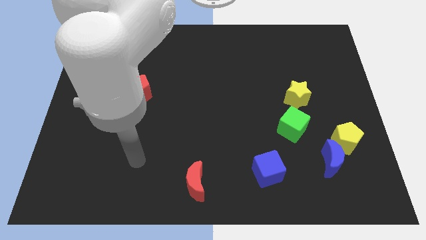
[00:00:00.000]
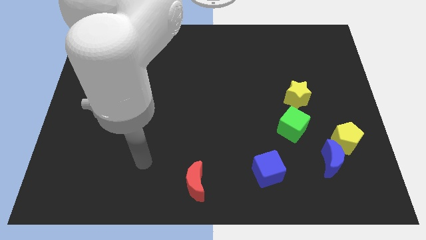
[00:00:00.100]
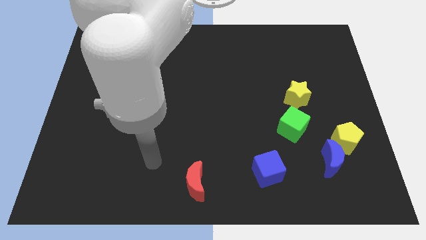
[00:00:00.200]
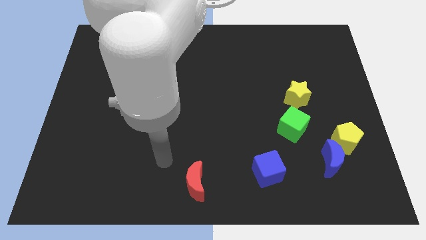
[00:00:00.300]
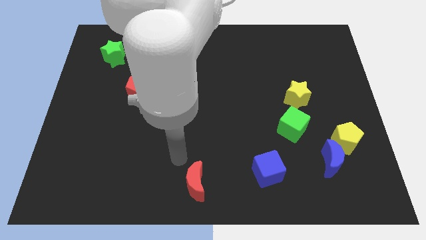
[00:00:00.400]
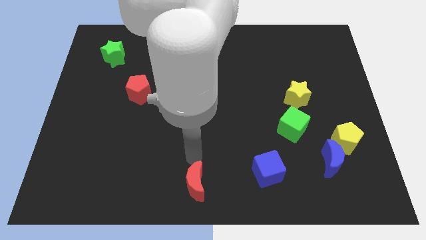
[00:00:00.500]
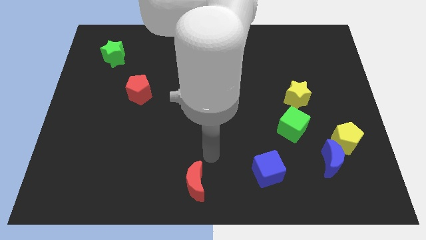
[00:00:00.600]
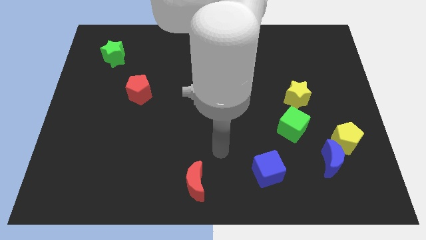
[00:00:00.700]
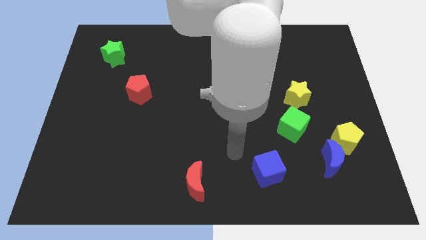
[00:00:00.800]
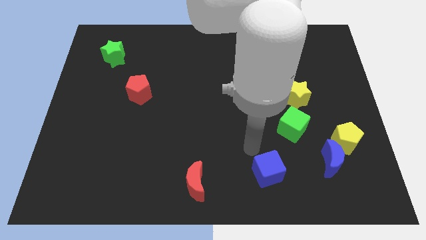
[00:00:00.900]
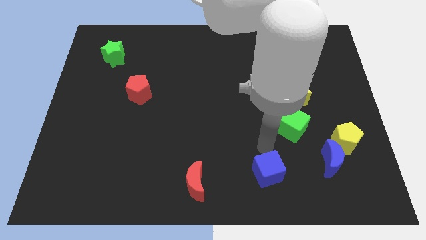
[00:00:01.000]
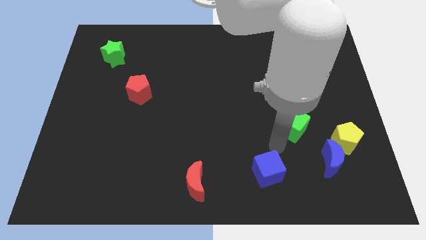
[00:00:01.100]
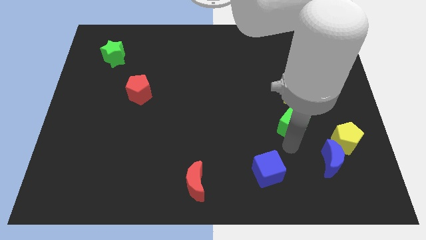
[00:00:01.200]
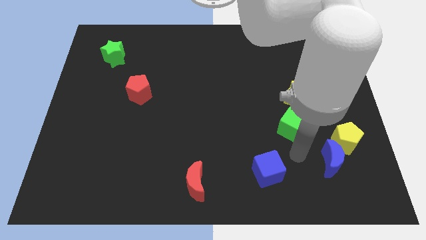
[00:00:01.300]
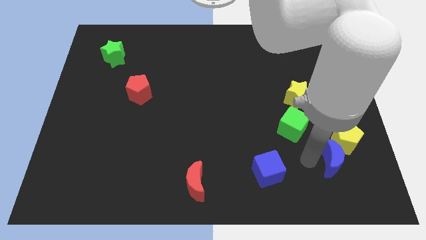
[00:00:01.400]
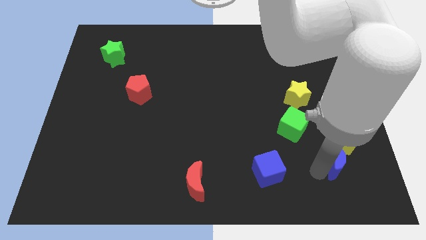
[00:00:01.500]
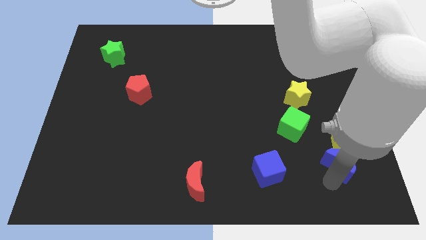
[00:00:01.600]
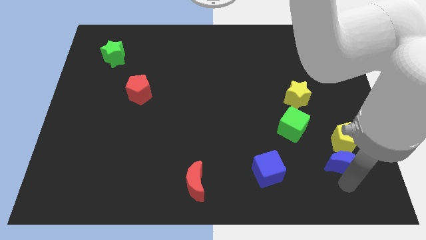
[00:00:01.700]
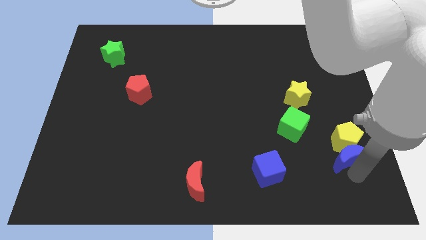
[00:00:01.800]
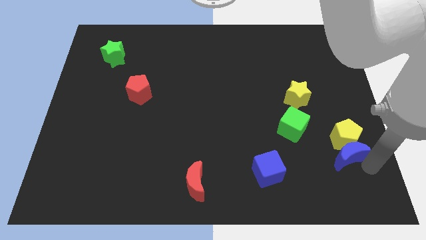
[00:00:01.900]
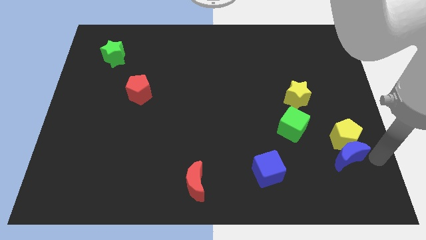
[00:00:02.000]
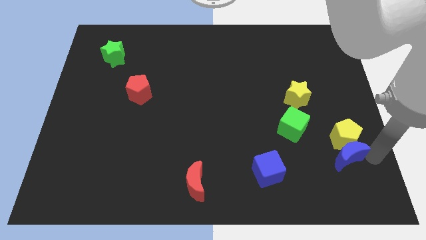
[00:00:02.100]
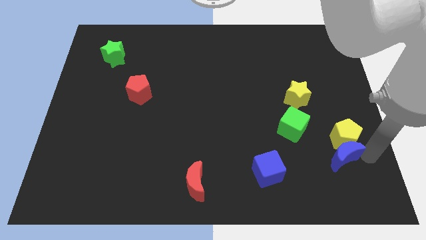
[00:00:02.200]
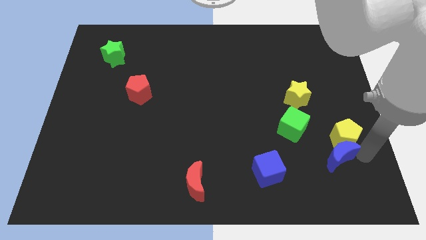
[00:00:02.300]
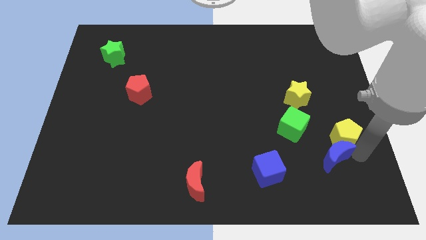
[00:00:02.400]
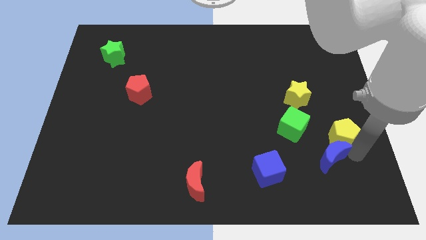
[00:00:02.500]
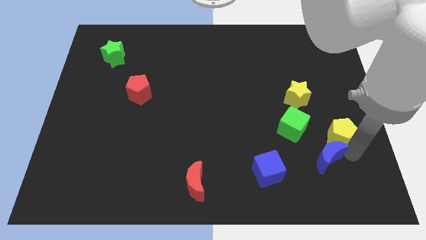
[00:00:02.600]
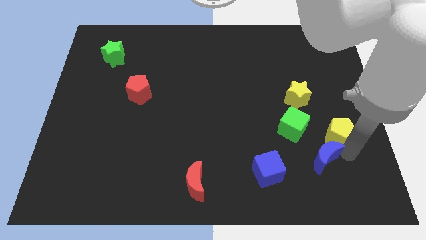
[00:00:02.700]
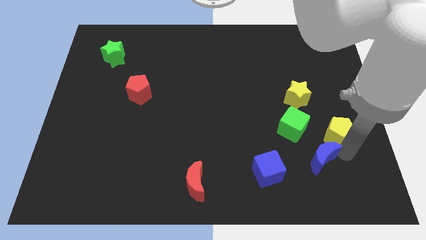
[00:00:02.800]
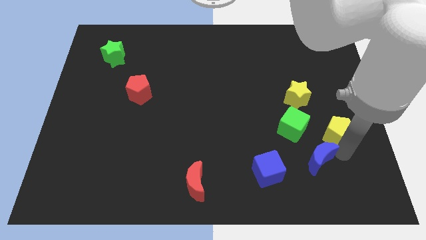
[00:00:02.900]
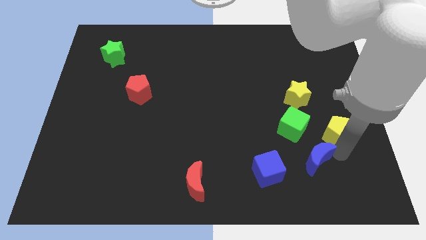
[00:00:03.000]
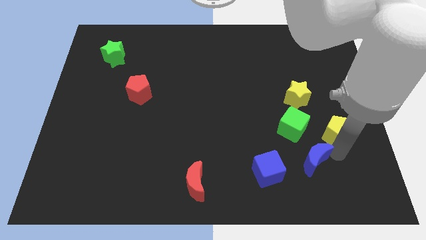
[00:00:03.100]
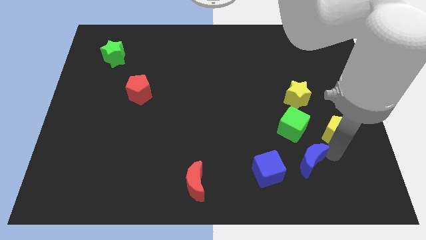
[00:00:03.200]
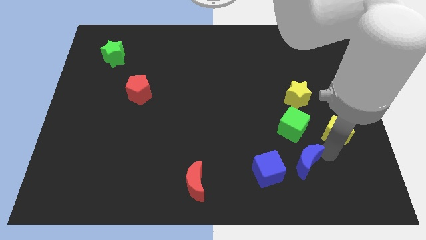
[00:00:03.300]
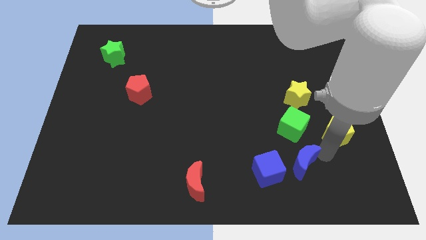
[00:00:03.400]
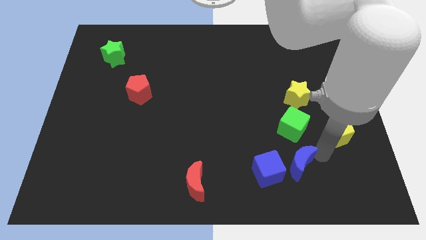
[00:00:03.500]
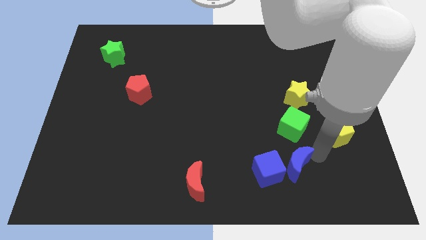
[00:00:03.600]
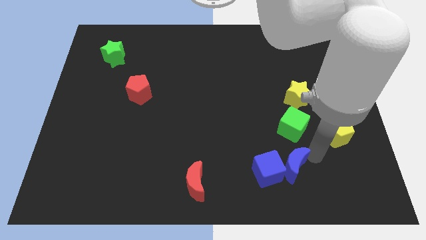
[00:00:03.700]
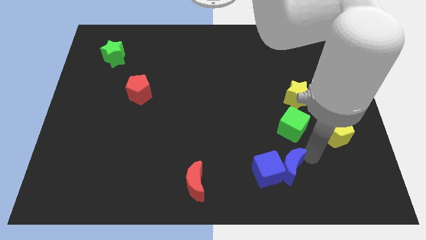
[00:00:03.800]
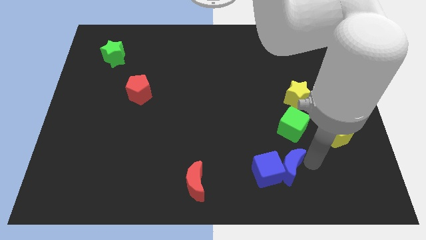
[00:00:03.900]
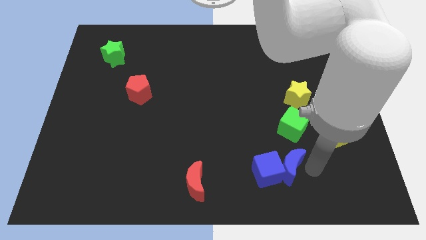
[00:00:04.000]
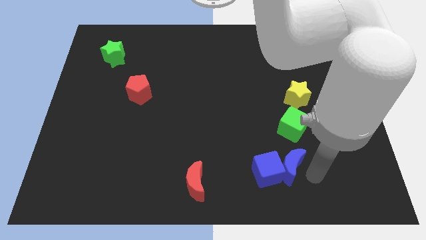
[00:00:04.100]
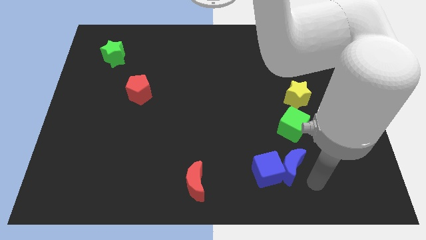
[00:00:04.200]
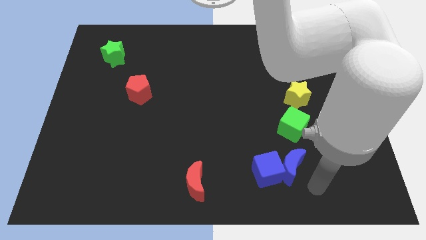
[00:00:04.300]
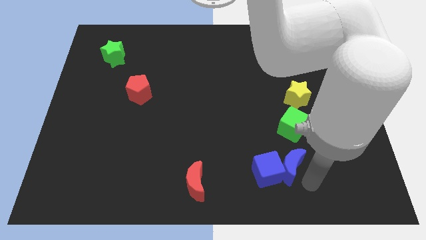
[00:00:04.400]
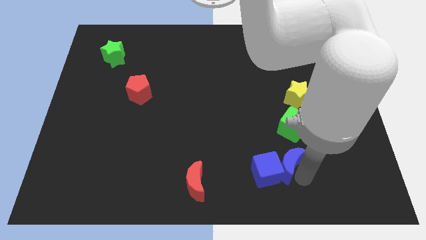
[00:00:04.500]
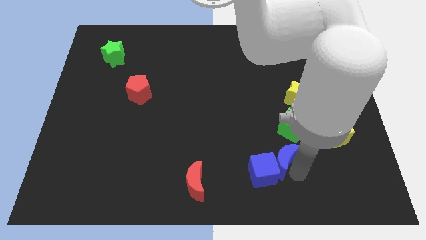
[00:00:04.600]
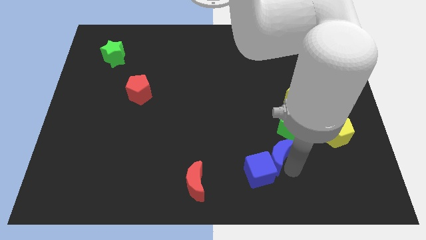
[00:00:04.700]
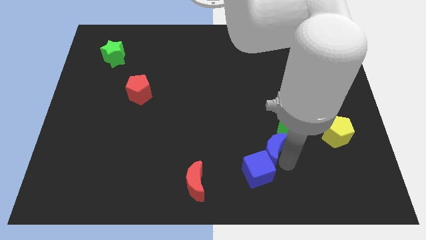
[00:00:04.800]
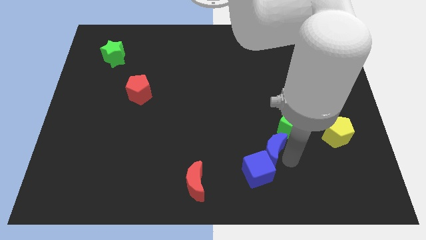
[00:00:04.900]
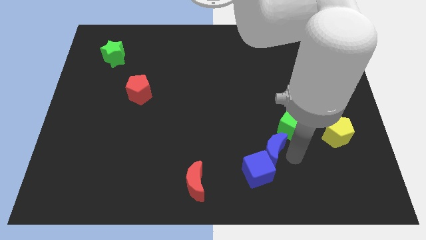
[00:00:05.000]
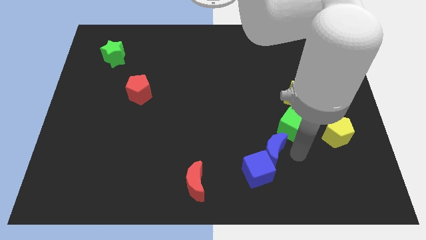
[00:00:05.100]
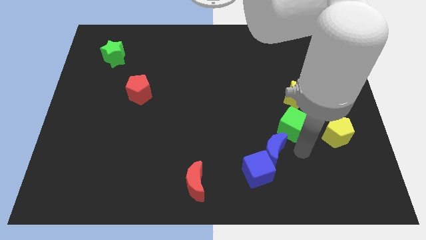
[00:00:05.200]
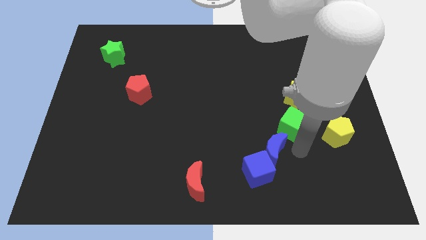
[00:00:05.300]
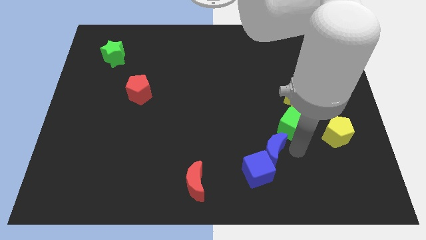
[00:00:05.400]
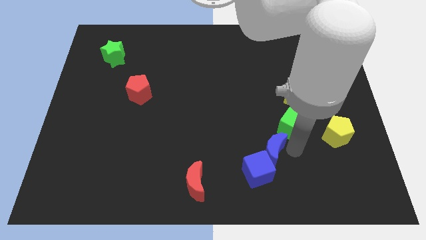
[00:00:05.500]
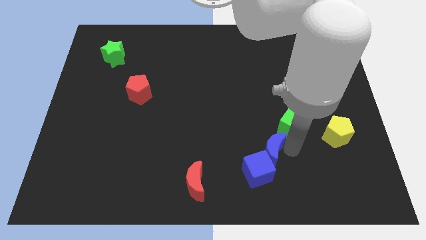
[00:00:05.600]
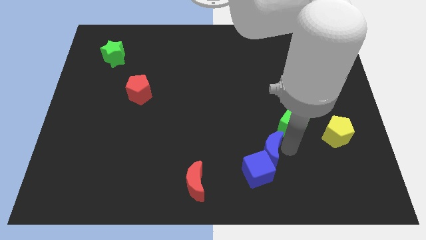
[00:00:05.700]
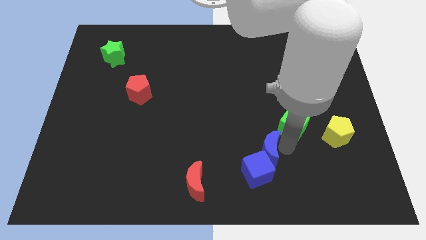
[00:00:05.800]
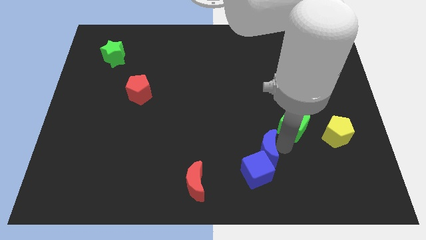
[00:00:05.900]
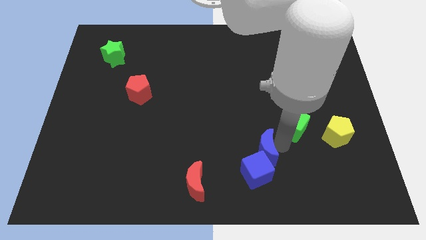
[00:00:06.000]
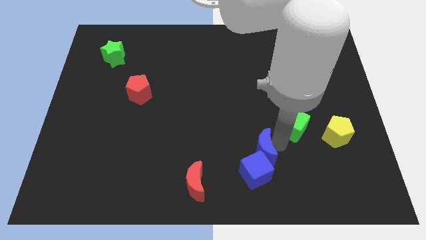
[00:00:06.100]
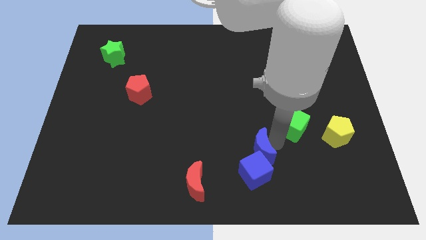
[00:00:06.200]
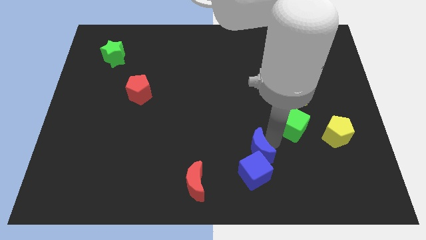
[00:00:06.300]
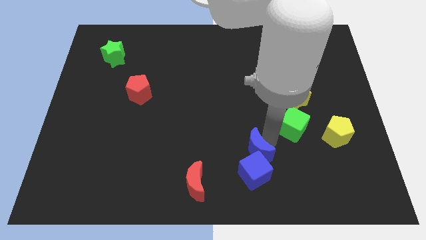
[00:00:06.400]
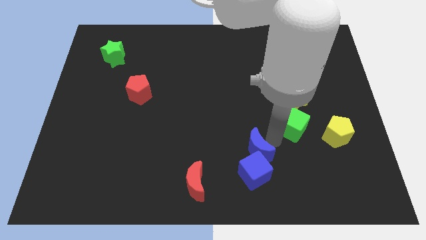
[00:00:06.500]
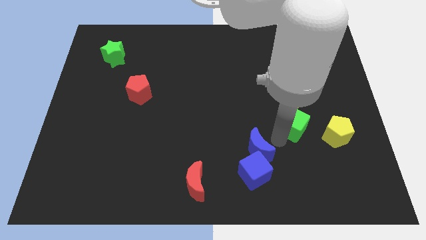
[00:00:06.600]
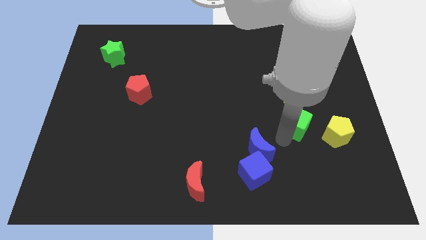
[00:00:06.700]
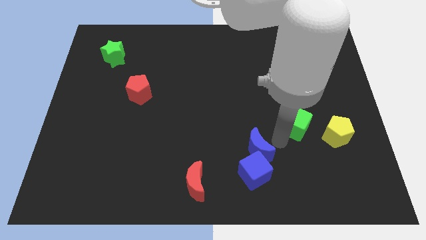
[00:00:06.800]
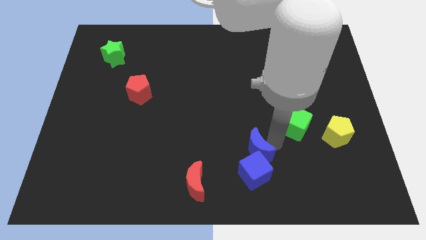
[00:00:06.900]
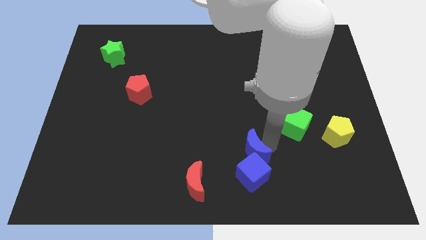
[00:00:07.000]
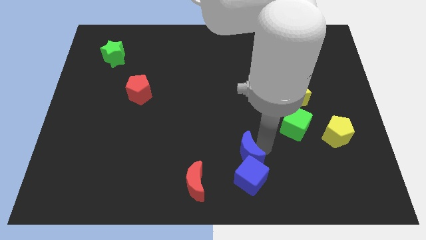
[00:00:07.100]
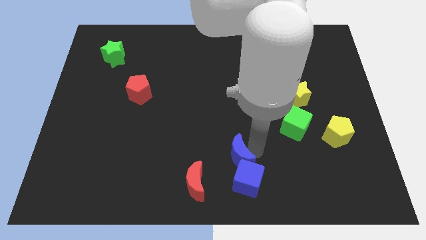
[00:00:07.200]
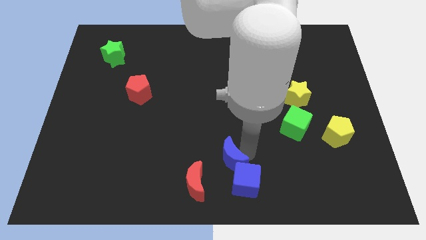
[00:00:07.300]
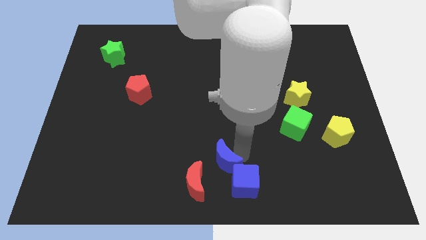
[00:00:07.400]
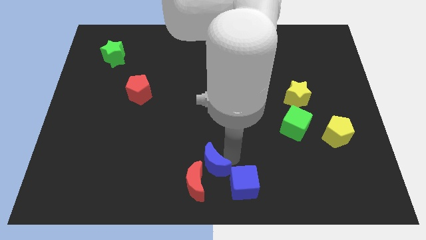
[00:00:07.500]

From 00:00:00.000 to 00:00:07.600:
slide the blue moon towards the red moon
